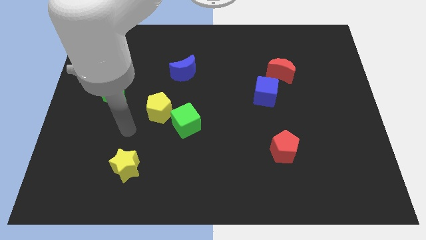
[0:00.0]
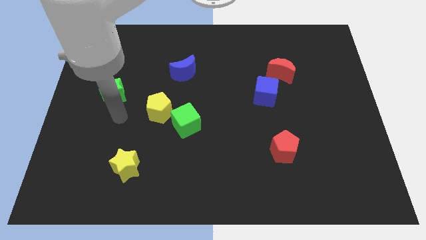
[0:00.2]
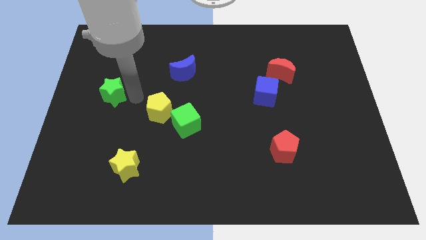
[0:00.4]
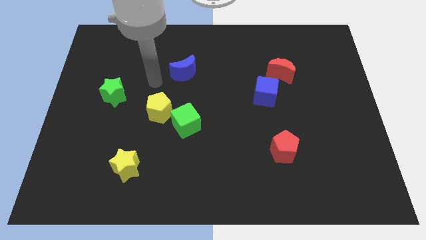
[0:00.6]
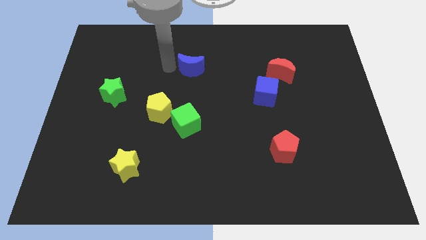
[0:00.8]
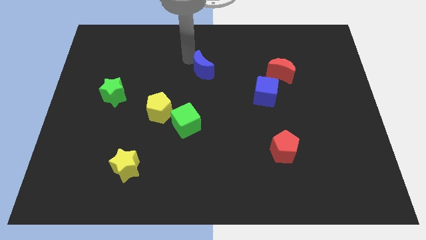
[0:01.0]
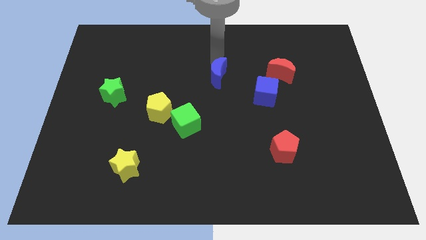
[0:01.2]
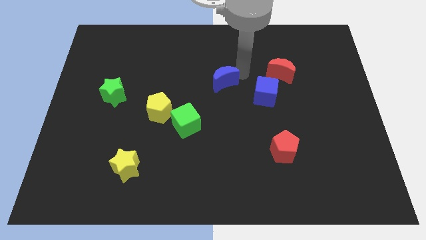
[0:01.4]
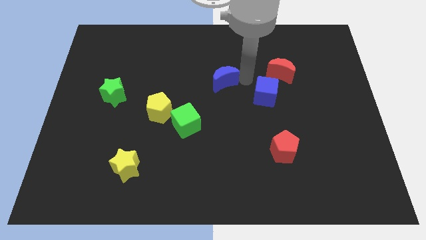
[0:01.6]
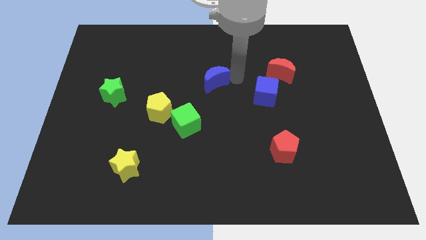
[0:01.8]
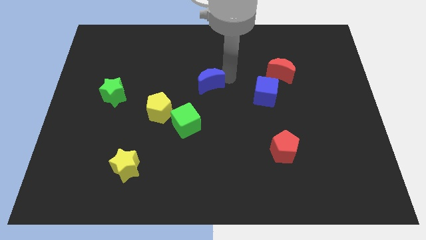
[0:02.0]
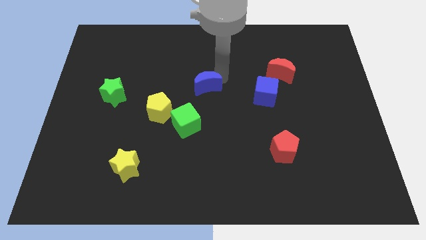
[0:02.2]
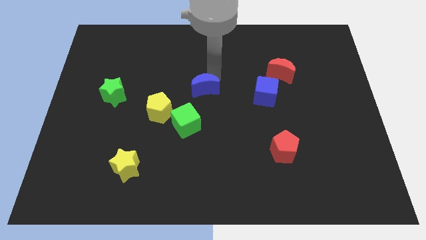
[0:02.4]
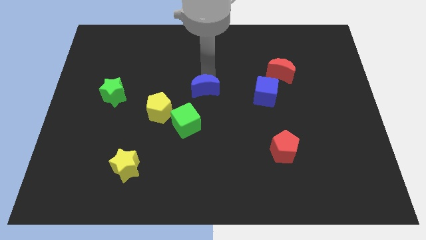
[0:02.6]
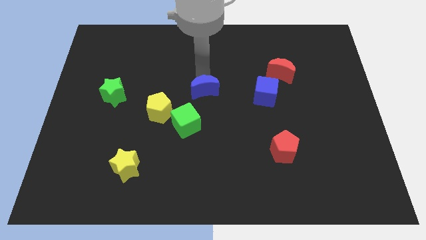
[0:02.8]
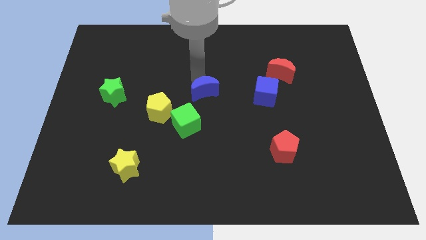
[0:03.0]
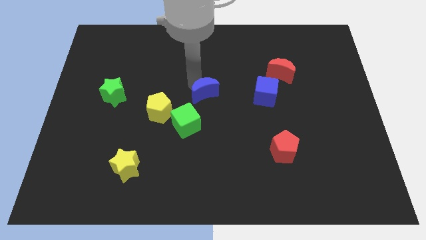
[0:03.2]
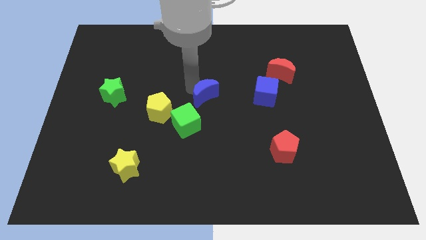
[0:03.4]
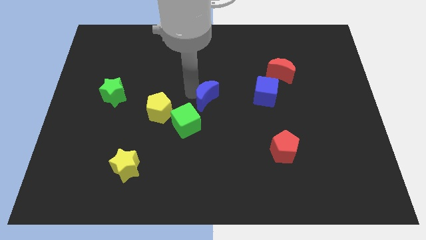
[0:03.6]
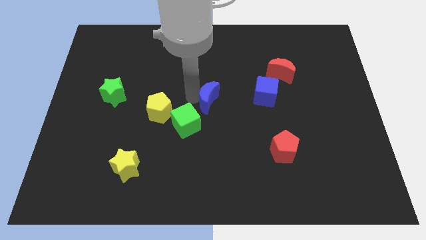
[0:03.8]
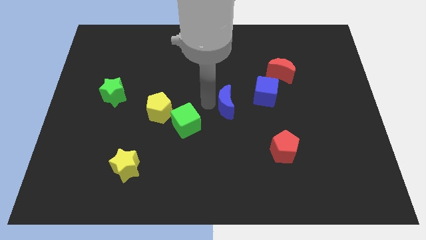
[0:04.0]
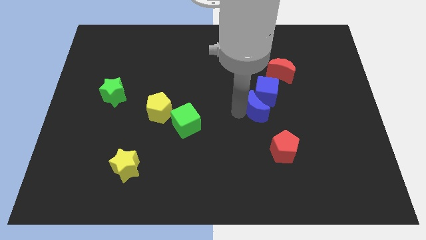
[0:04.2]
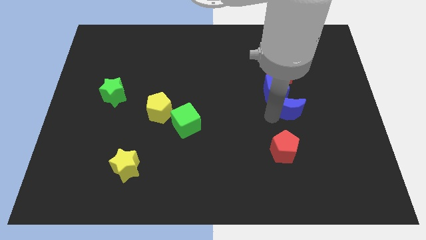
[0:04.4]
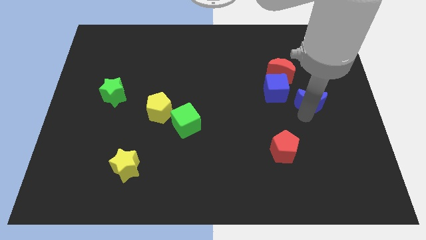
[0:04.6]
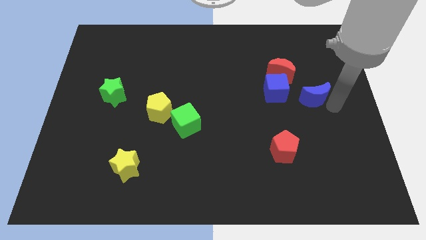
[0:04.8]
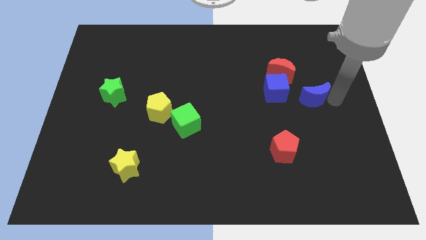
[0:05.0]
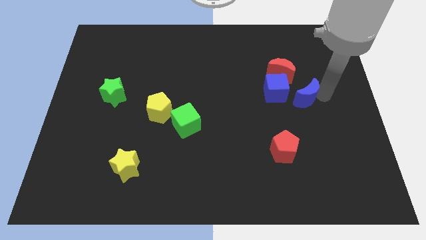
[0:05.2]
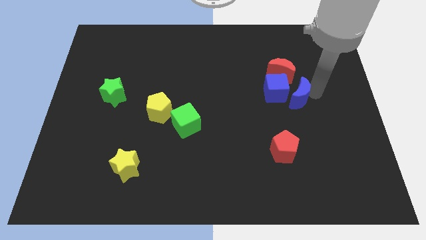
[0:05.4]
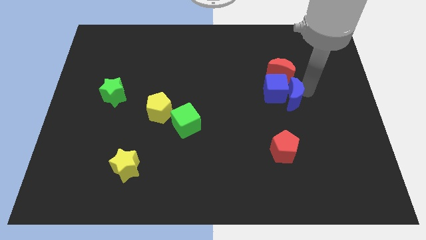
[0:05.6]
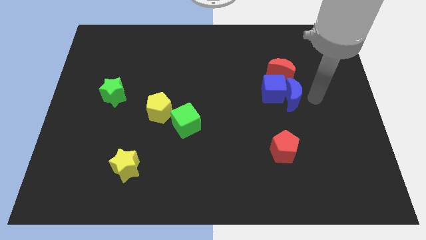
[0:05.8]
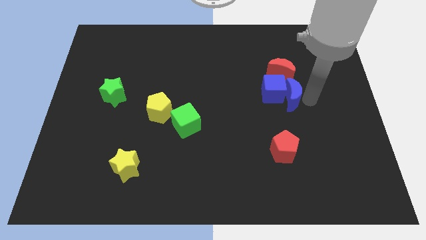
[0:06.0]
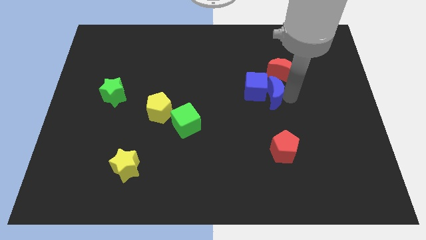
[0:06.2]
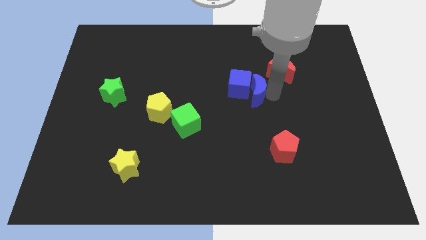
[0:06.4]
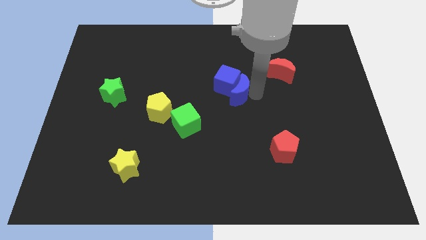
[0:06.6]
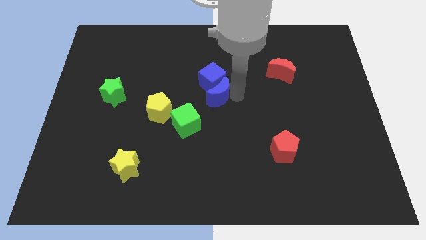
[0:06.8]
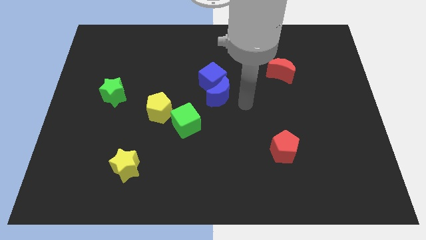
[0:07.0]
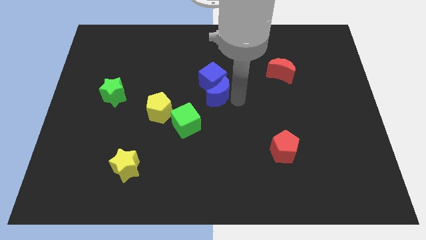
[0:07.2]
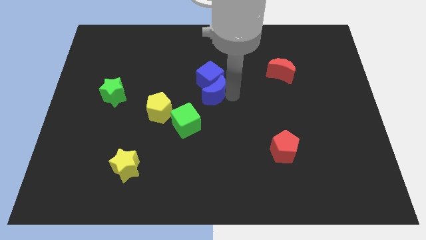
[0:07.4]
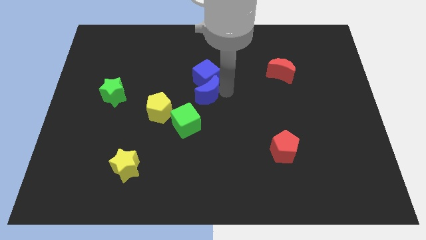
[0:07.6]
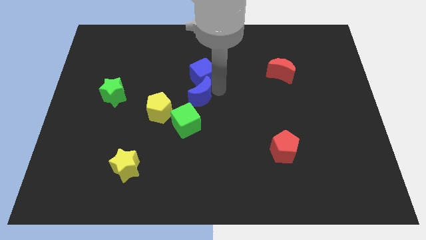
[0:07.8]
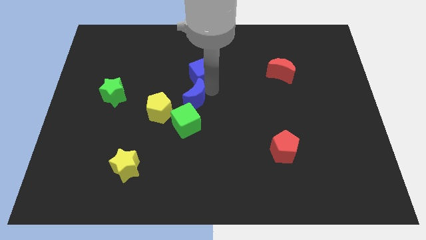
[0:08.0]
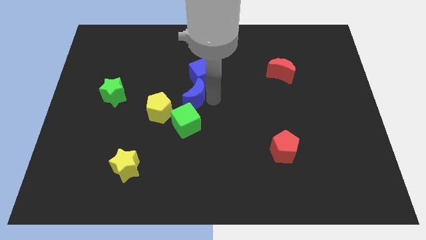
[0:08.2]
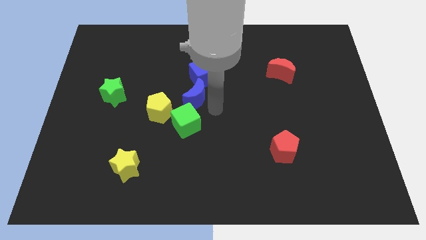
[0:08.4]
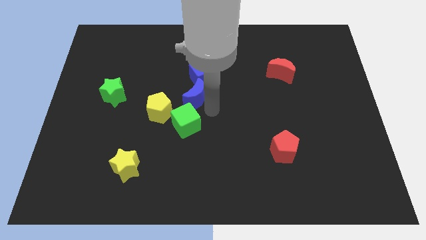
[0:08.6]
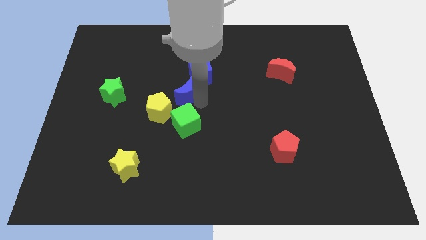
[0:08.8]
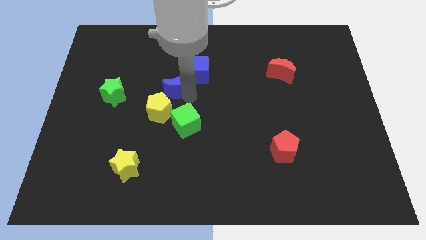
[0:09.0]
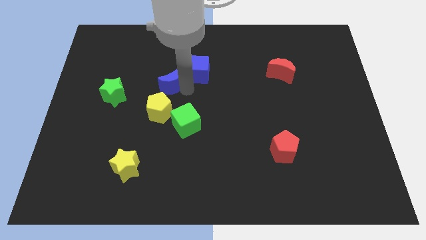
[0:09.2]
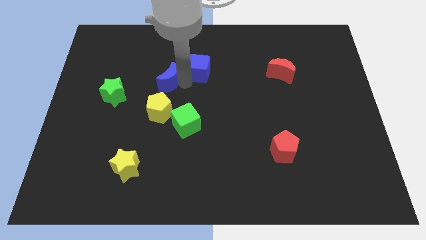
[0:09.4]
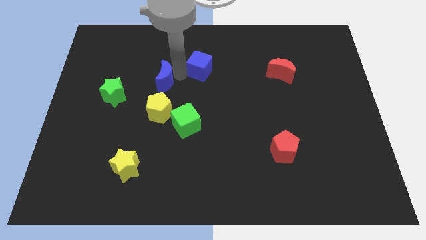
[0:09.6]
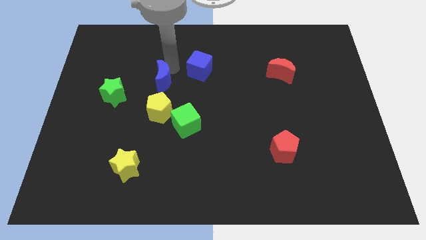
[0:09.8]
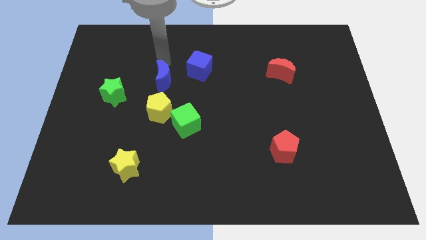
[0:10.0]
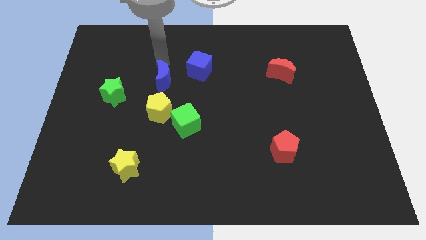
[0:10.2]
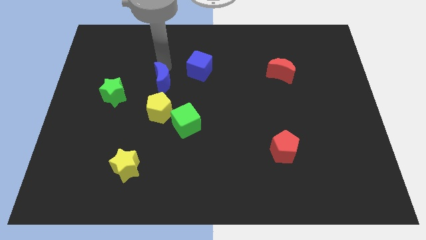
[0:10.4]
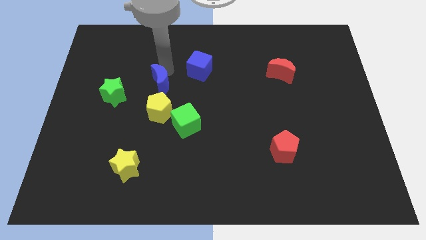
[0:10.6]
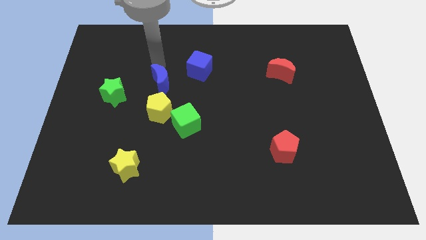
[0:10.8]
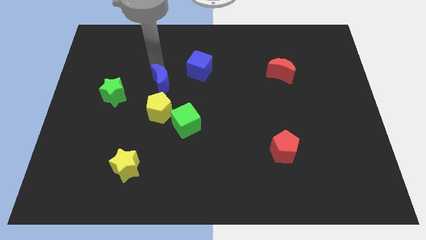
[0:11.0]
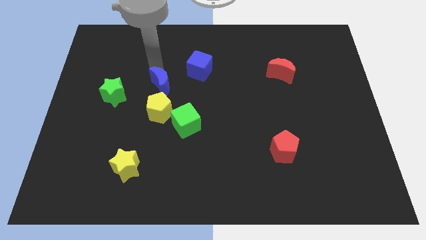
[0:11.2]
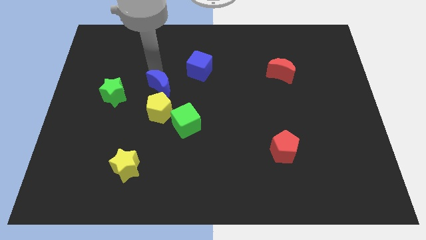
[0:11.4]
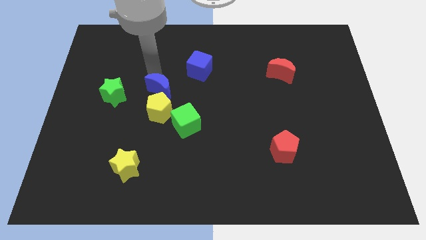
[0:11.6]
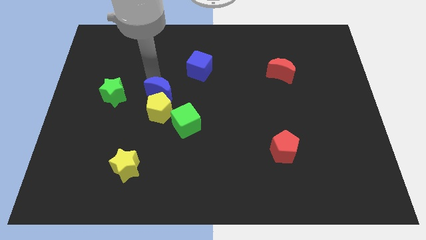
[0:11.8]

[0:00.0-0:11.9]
slide the blue moon next to the yellow pentagon

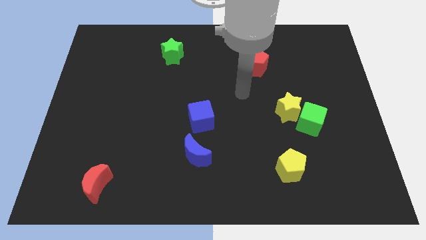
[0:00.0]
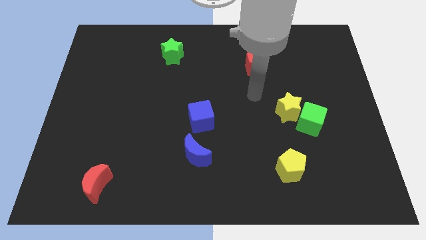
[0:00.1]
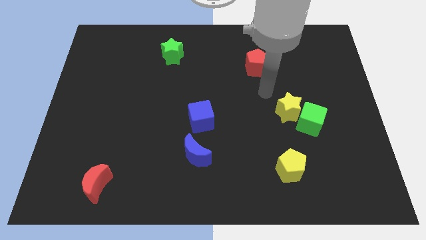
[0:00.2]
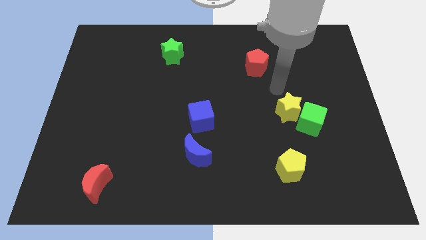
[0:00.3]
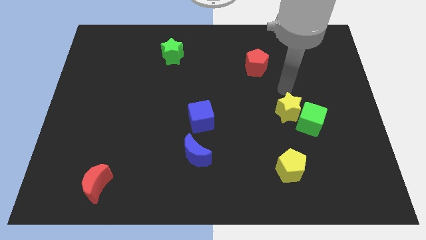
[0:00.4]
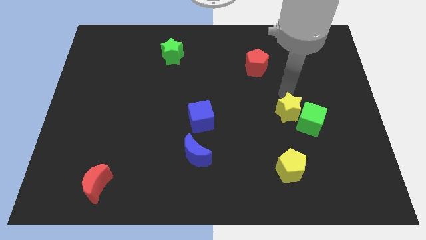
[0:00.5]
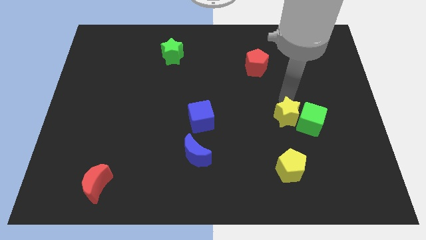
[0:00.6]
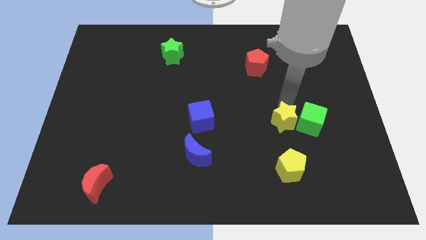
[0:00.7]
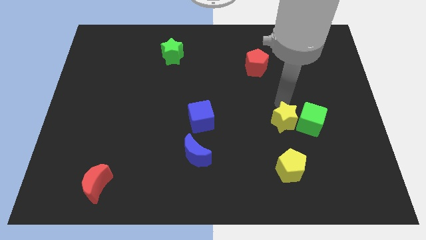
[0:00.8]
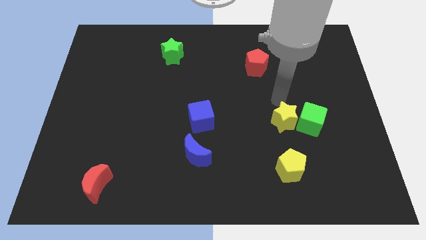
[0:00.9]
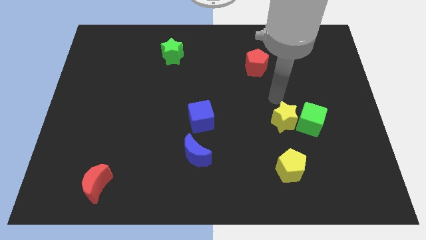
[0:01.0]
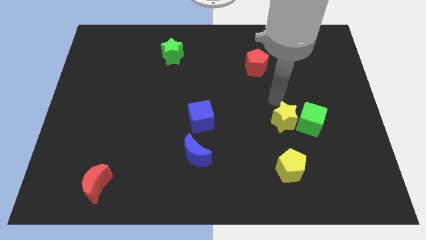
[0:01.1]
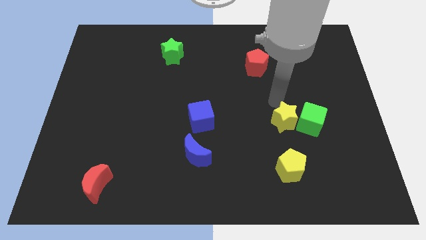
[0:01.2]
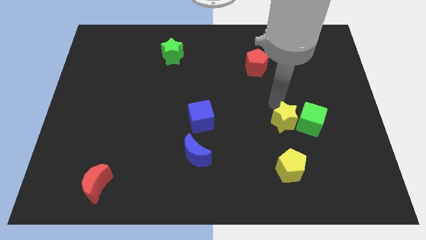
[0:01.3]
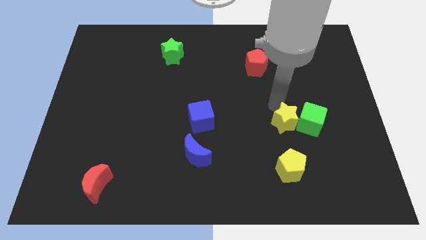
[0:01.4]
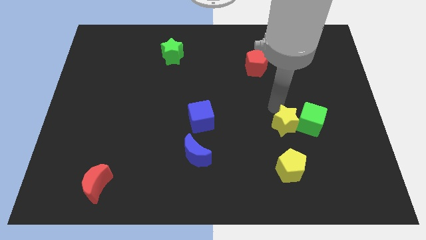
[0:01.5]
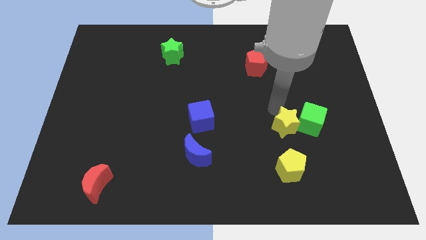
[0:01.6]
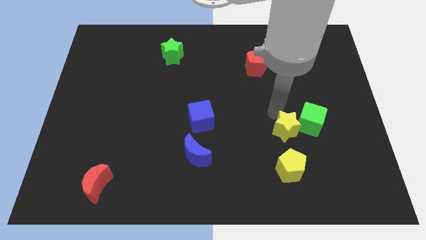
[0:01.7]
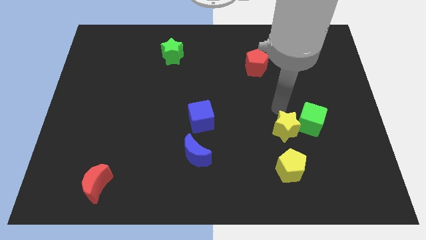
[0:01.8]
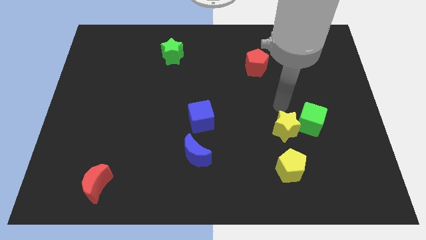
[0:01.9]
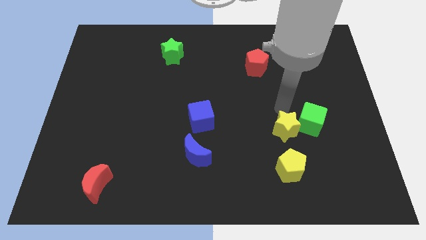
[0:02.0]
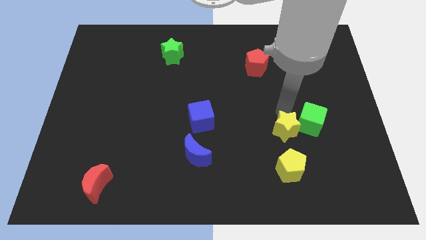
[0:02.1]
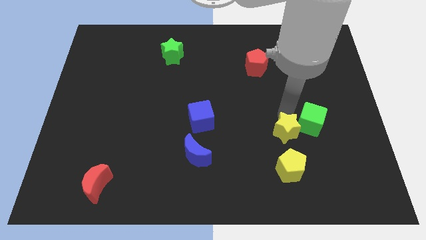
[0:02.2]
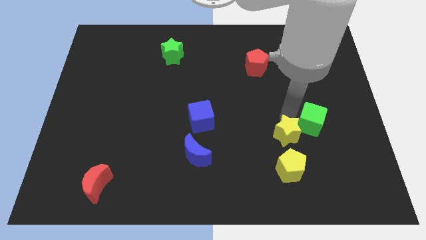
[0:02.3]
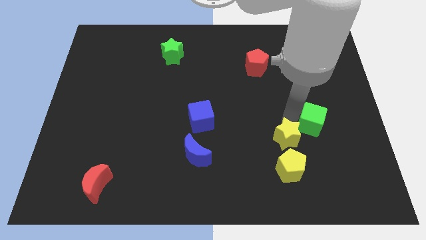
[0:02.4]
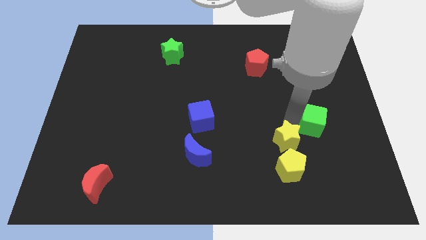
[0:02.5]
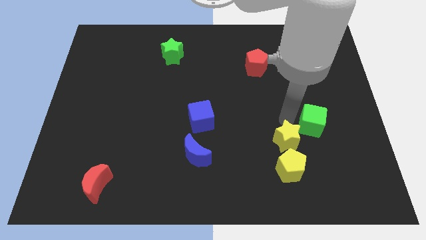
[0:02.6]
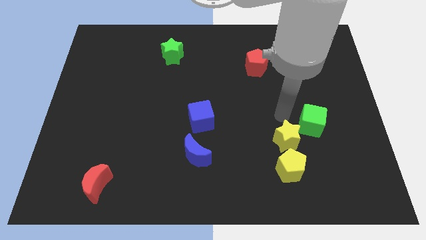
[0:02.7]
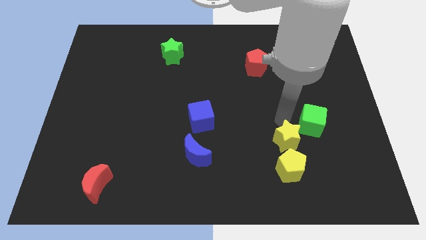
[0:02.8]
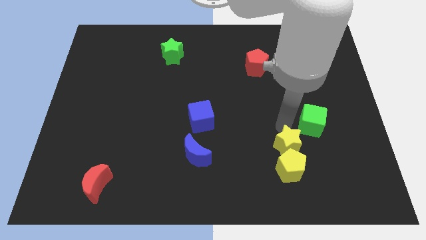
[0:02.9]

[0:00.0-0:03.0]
push the yellow star to the yellow pentagon
